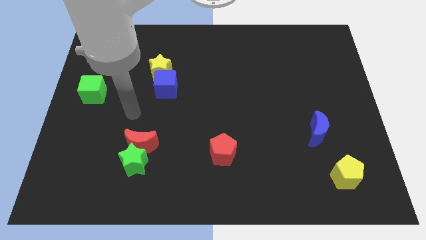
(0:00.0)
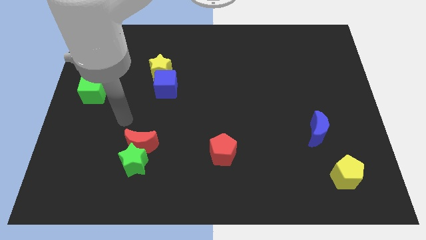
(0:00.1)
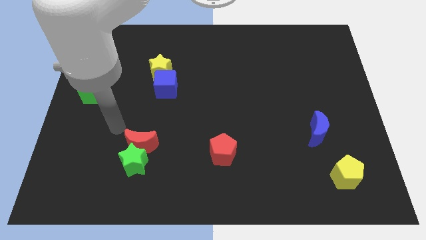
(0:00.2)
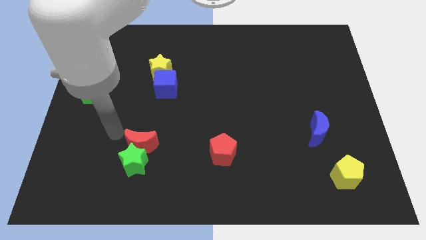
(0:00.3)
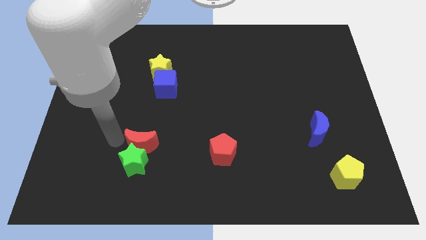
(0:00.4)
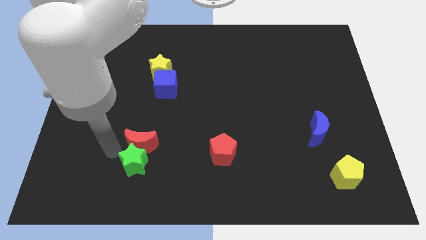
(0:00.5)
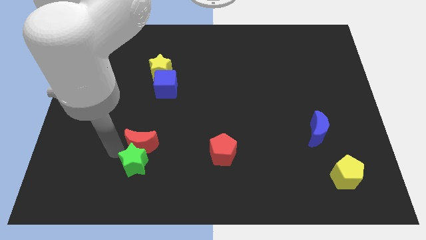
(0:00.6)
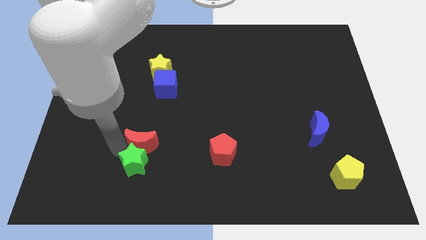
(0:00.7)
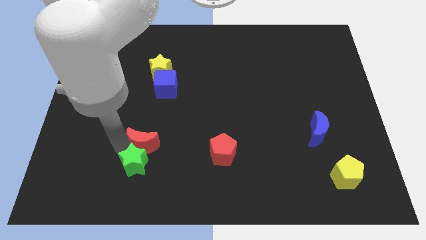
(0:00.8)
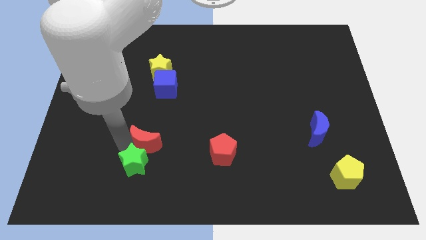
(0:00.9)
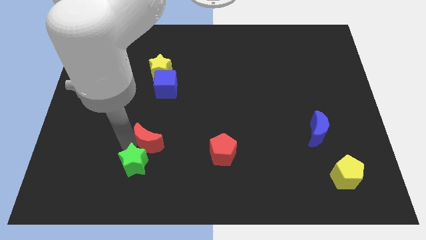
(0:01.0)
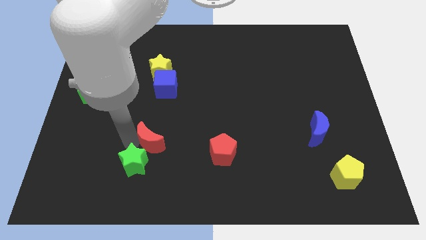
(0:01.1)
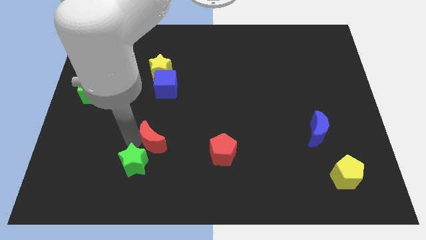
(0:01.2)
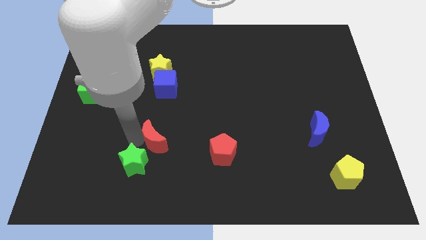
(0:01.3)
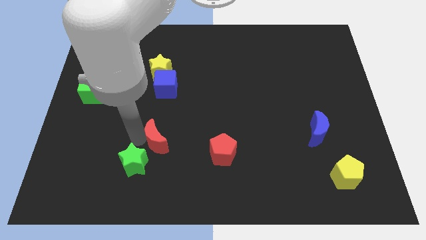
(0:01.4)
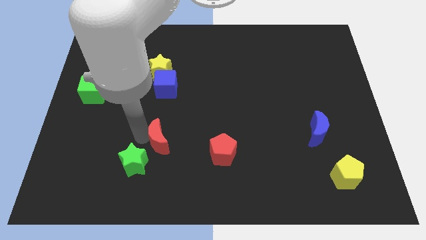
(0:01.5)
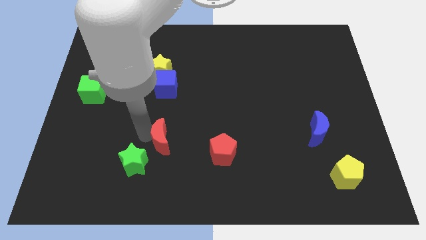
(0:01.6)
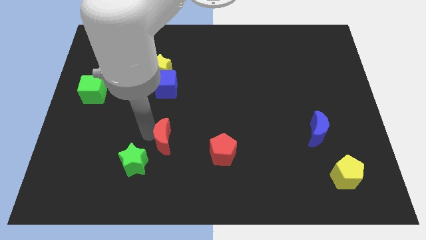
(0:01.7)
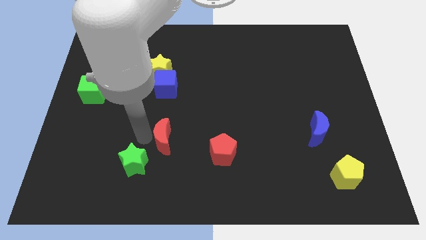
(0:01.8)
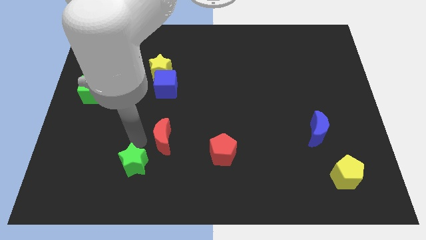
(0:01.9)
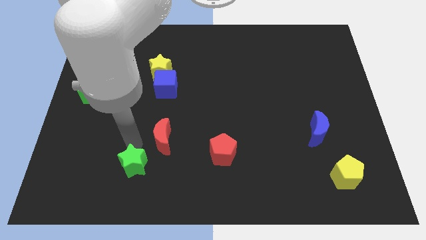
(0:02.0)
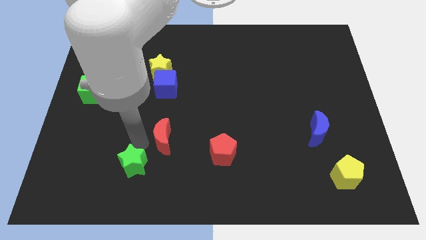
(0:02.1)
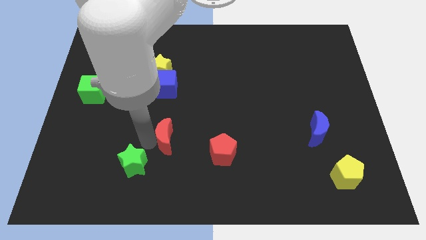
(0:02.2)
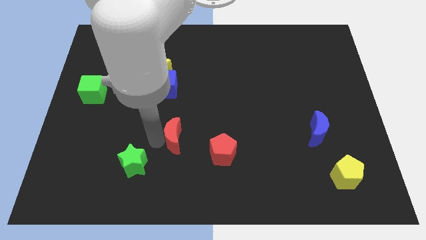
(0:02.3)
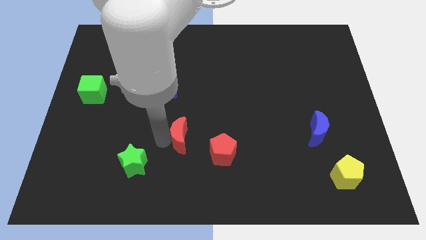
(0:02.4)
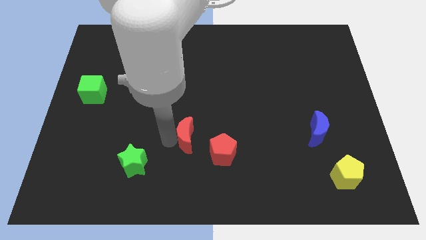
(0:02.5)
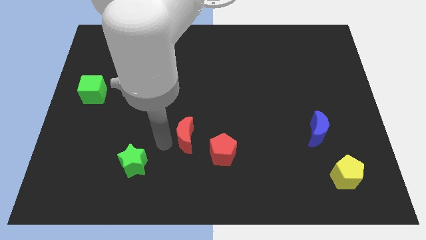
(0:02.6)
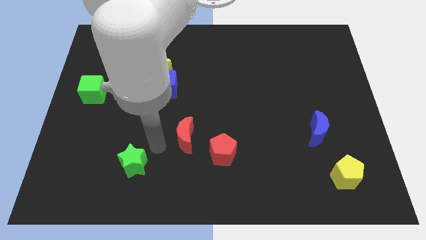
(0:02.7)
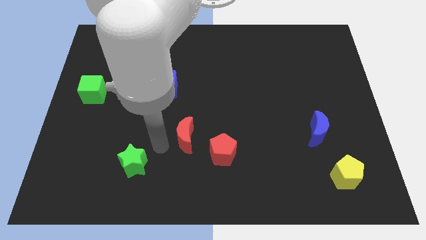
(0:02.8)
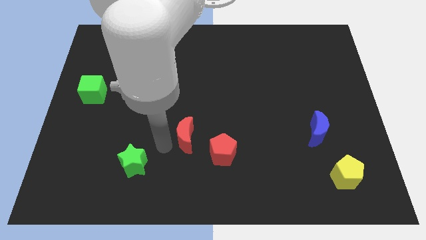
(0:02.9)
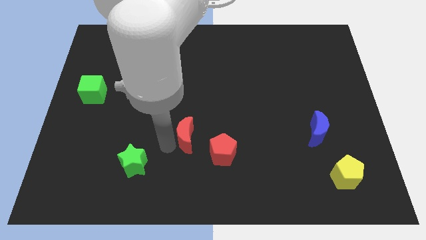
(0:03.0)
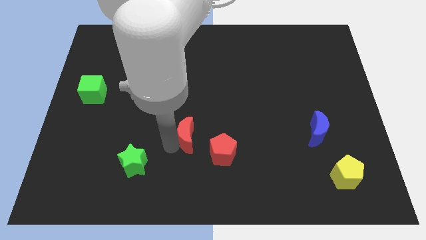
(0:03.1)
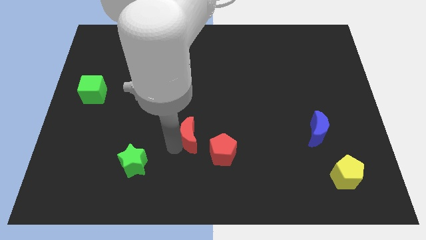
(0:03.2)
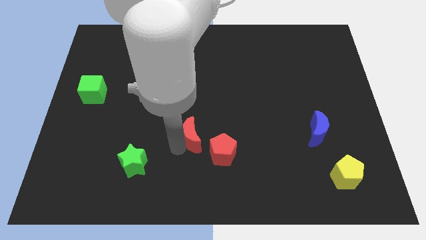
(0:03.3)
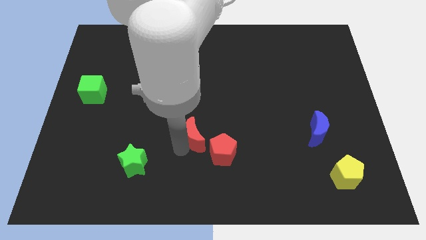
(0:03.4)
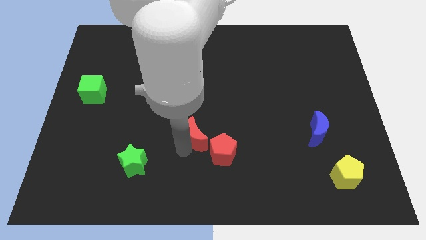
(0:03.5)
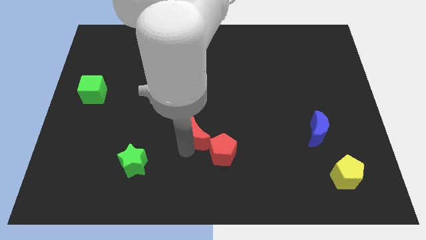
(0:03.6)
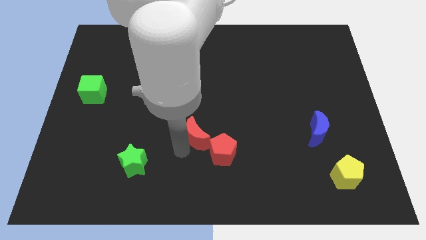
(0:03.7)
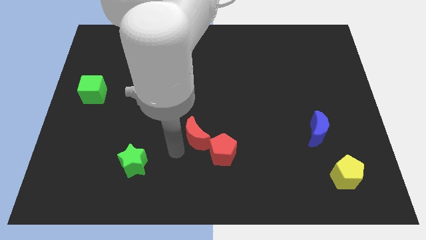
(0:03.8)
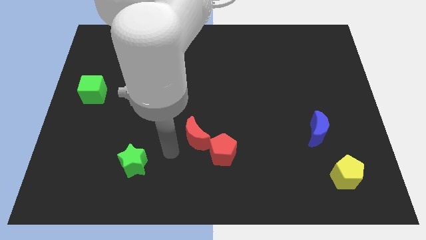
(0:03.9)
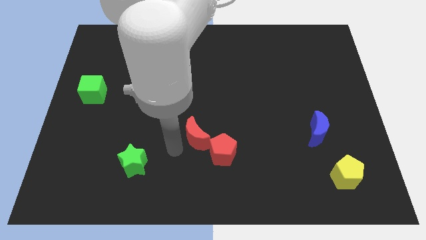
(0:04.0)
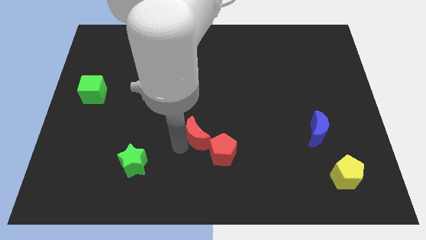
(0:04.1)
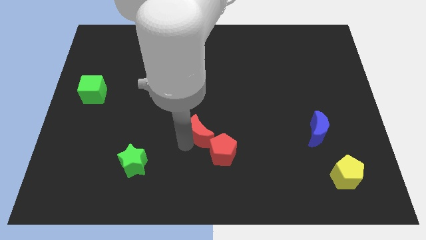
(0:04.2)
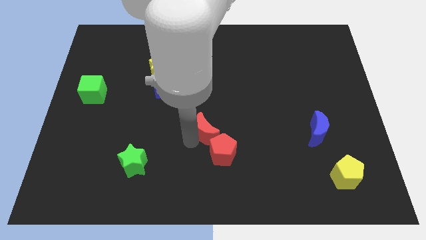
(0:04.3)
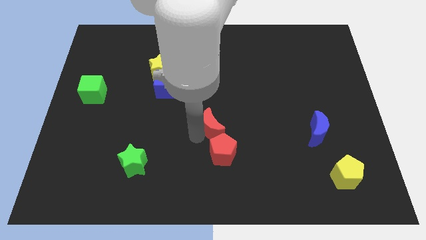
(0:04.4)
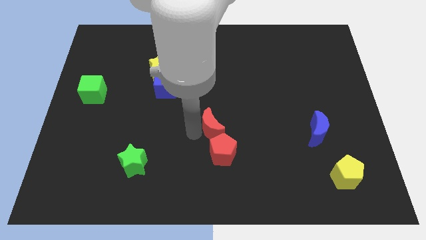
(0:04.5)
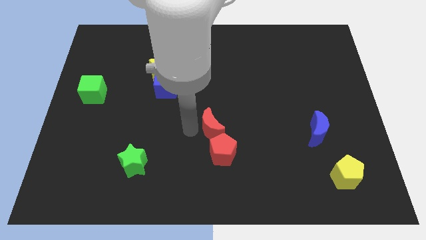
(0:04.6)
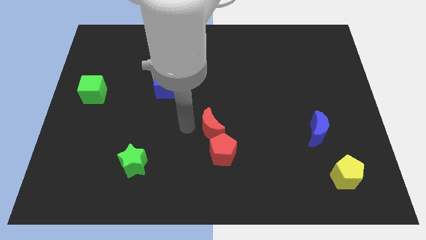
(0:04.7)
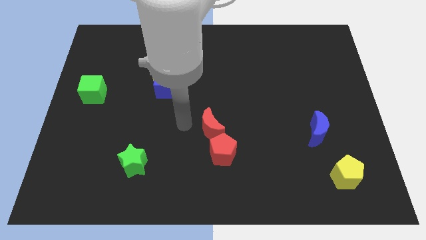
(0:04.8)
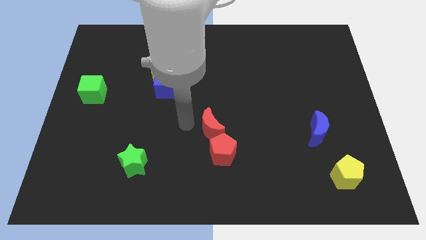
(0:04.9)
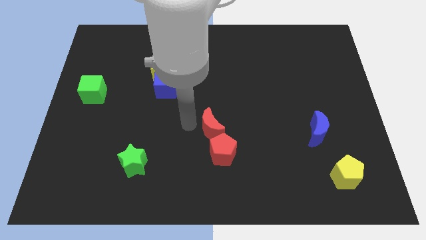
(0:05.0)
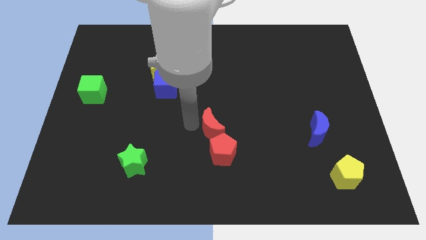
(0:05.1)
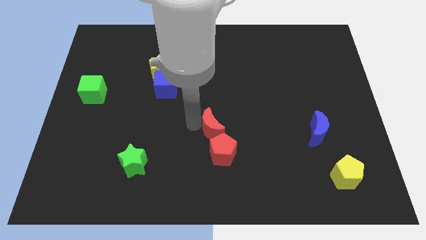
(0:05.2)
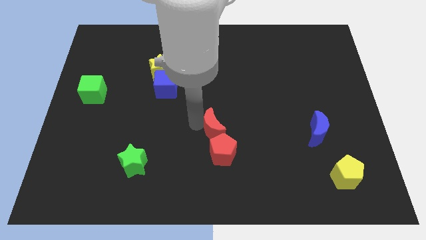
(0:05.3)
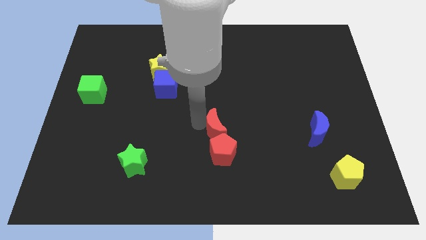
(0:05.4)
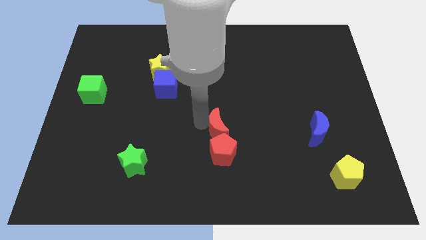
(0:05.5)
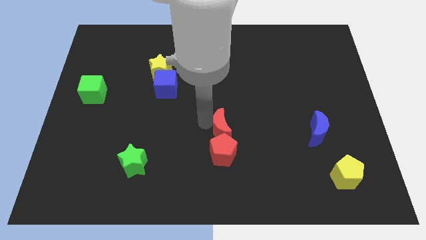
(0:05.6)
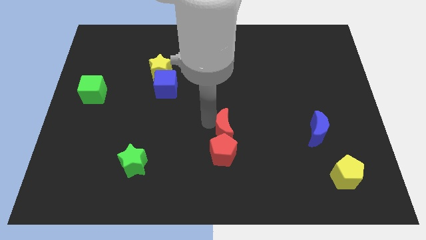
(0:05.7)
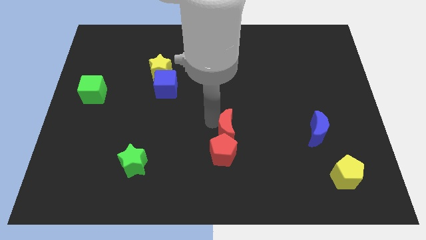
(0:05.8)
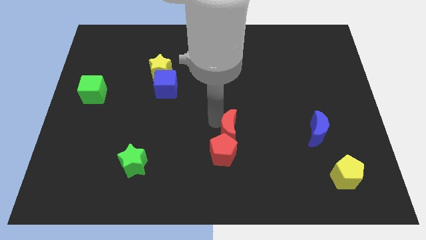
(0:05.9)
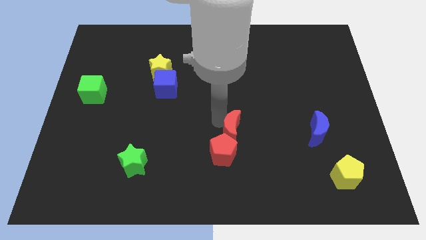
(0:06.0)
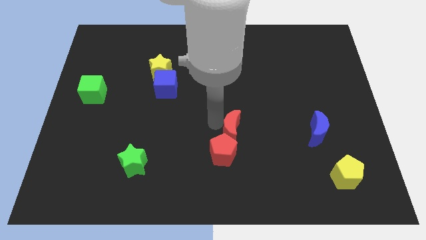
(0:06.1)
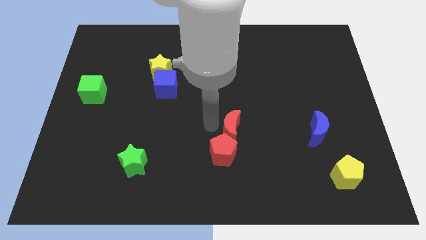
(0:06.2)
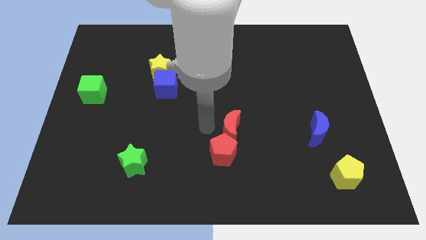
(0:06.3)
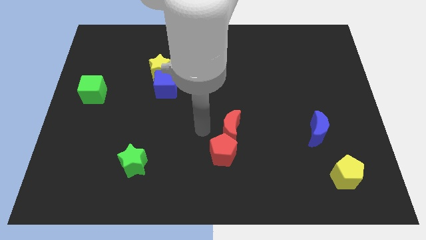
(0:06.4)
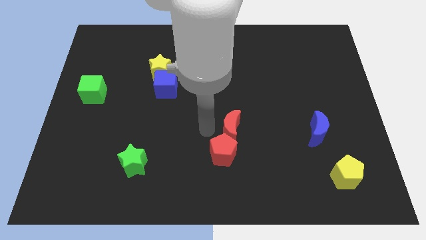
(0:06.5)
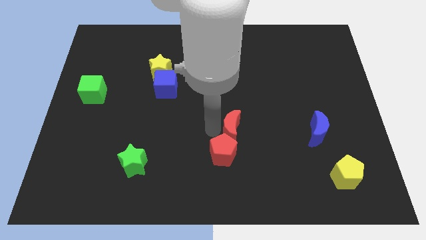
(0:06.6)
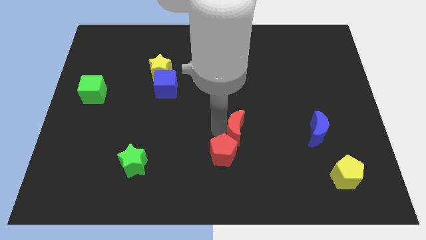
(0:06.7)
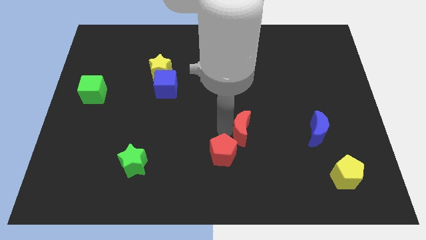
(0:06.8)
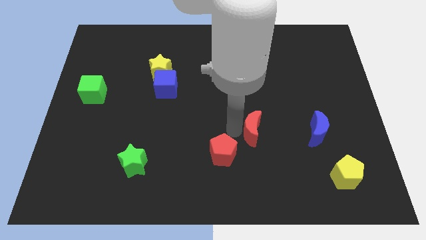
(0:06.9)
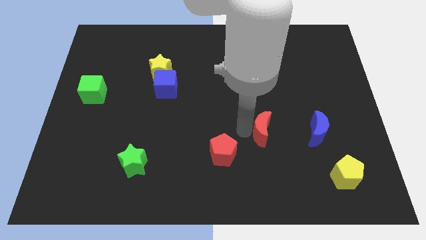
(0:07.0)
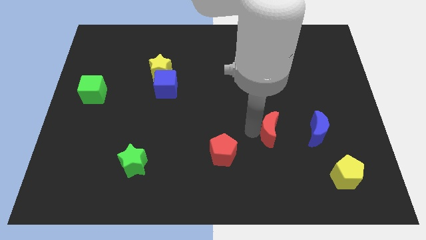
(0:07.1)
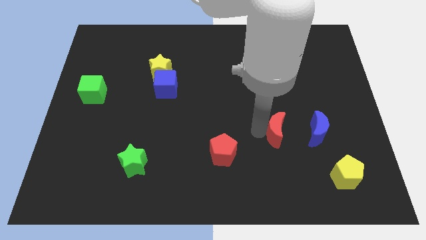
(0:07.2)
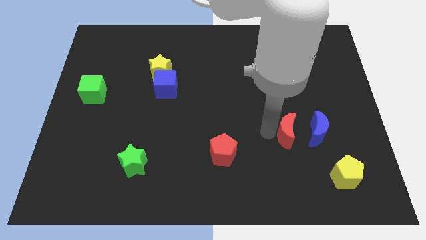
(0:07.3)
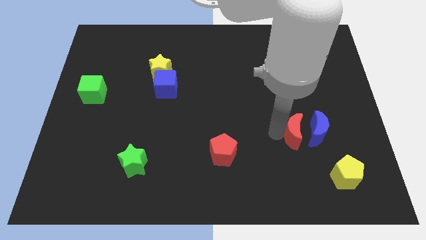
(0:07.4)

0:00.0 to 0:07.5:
put the red moon to the blue moon
